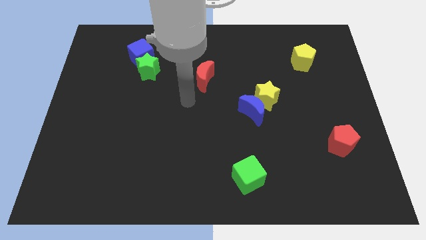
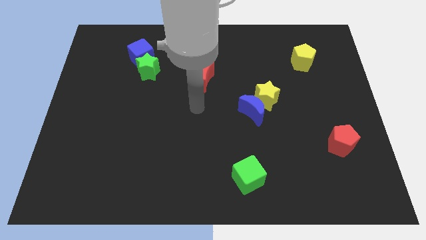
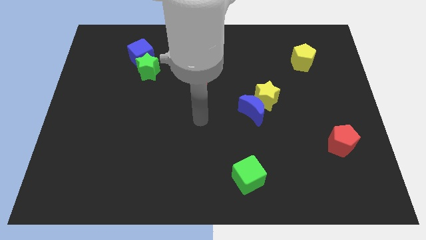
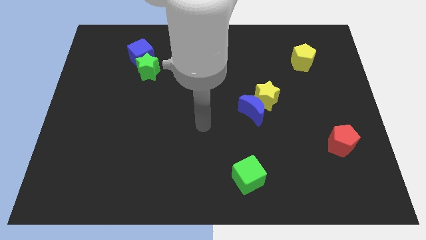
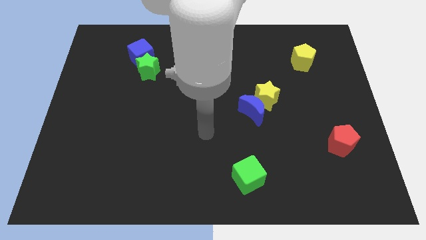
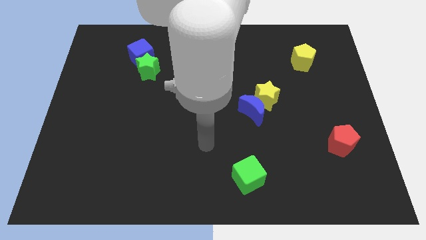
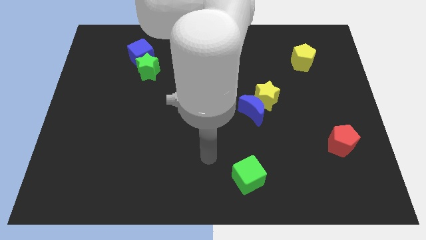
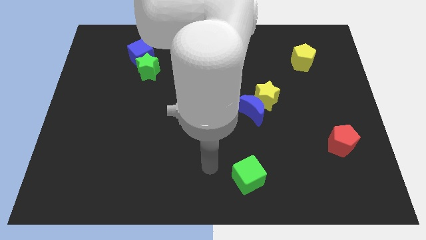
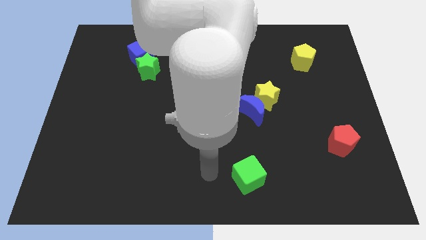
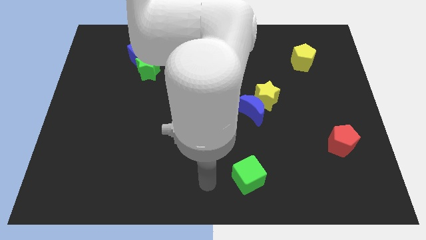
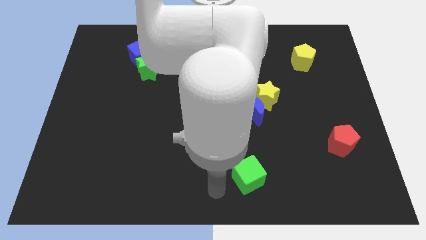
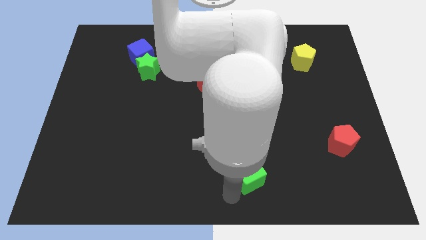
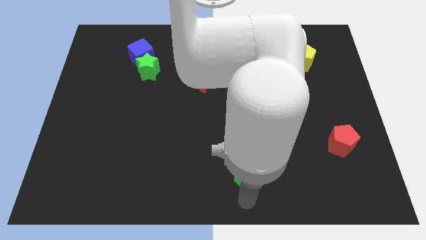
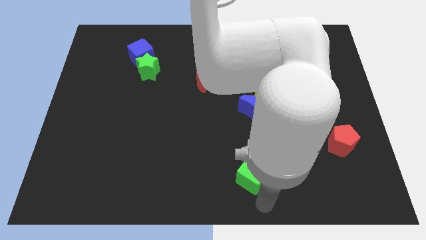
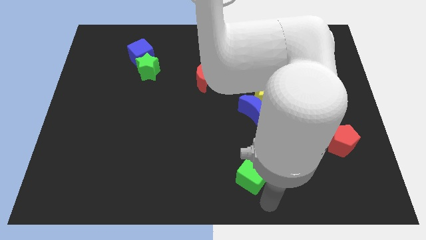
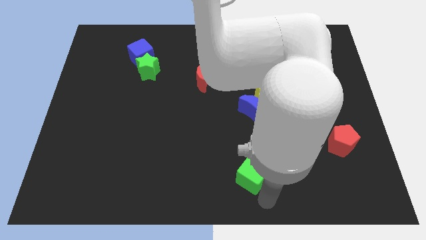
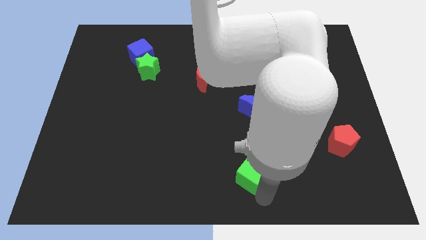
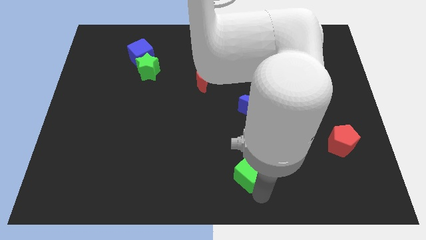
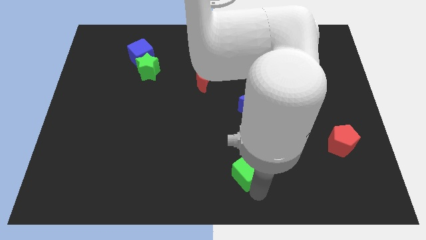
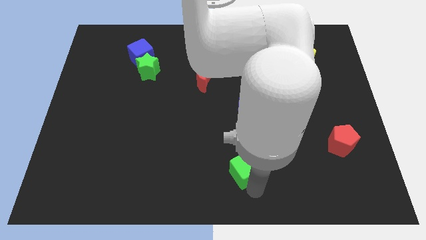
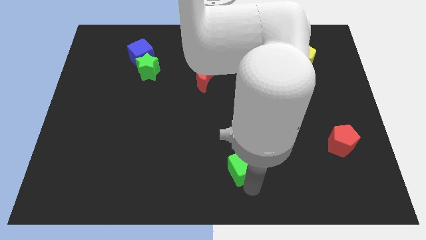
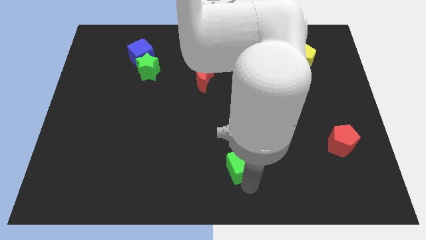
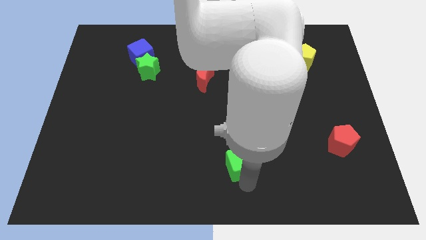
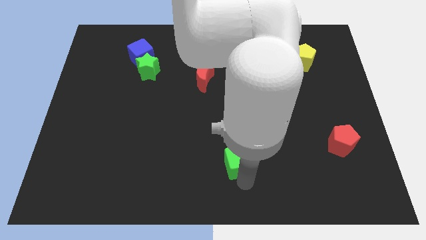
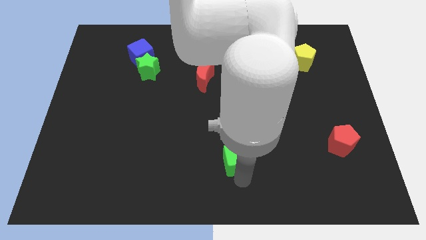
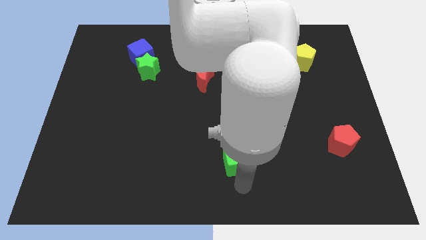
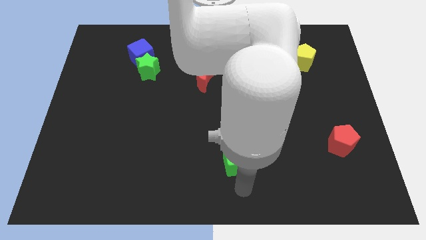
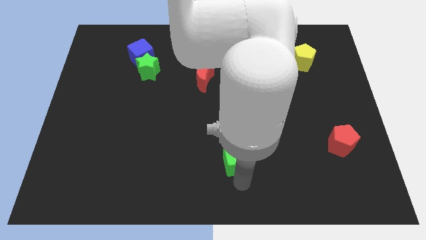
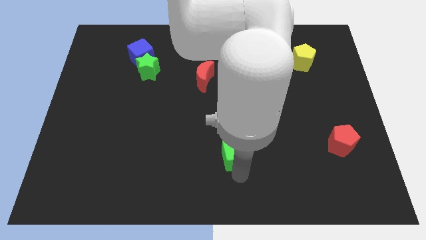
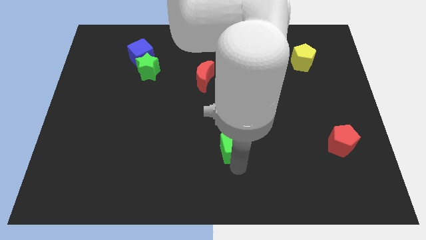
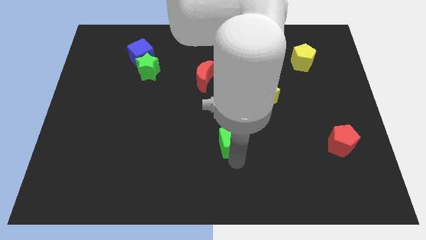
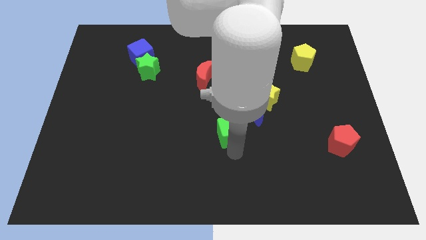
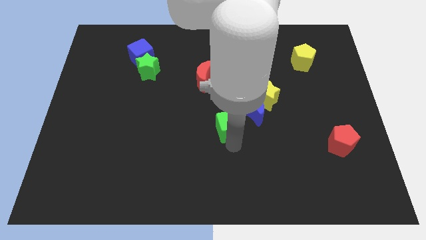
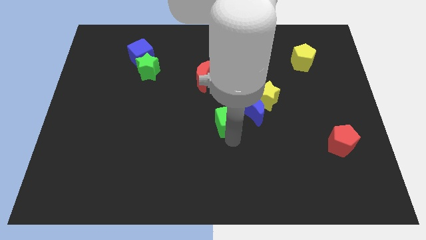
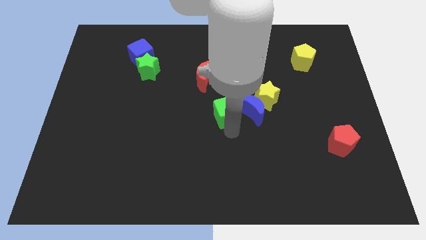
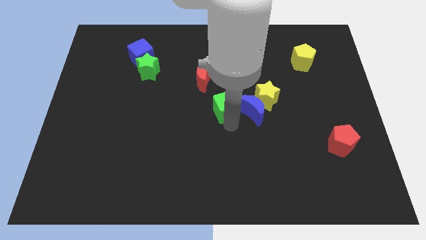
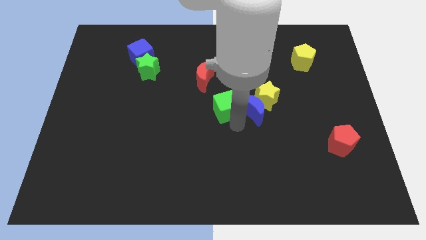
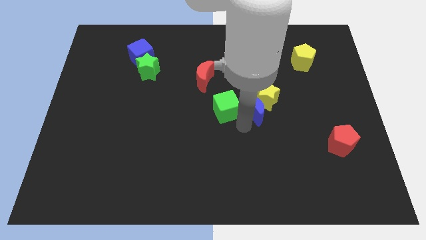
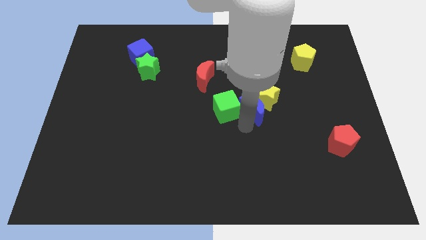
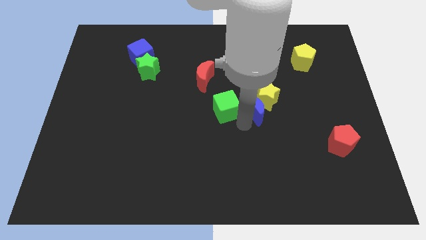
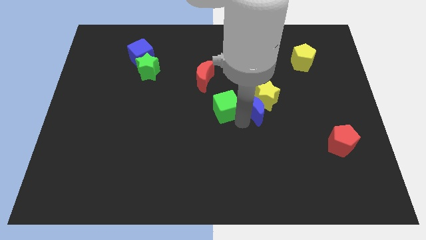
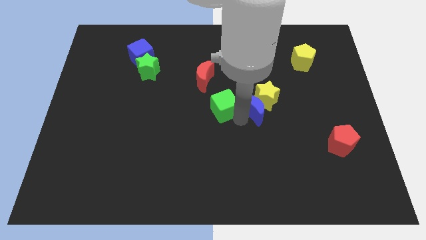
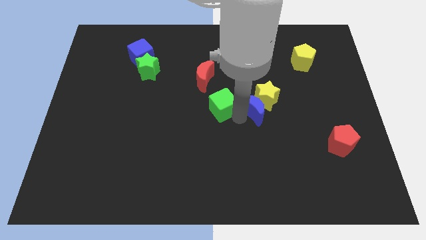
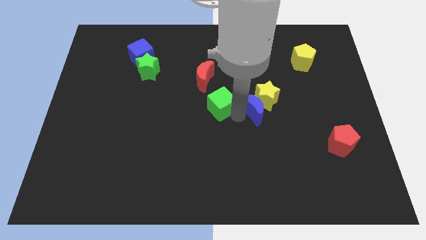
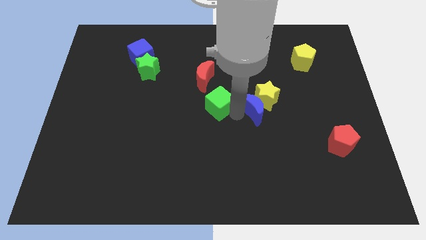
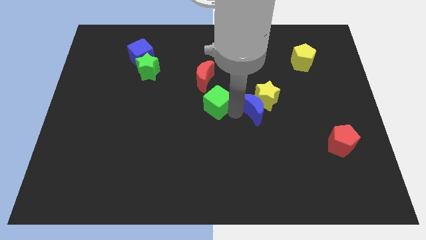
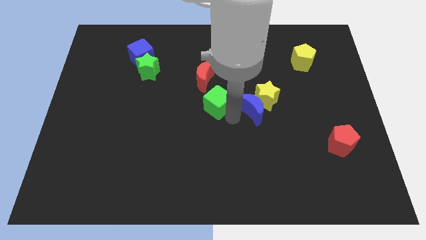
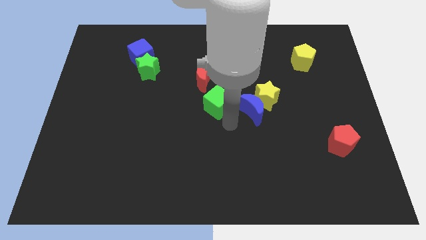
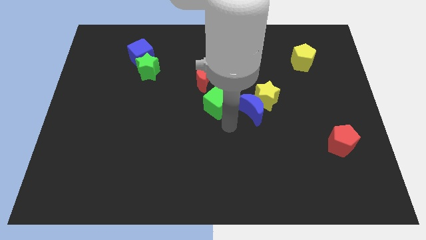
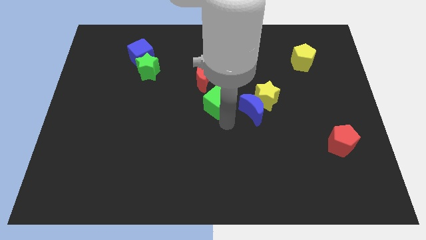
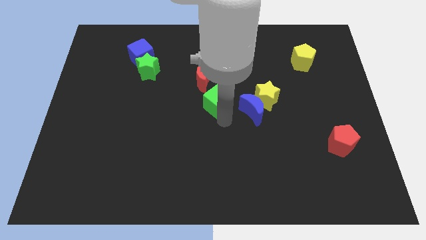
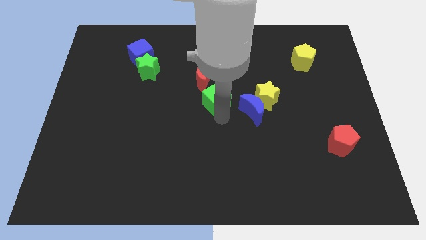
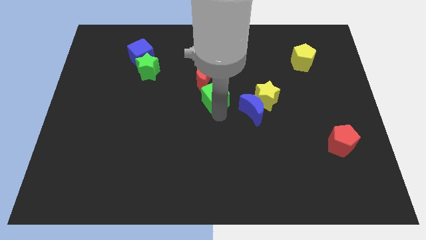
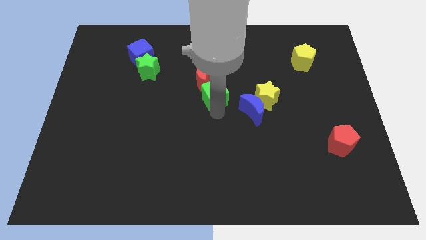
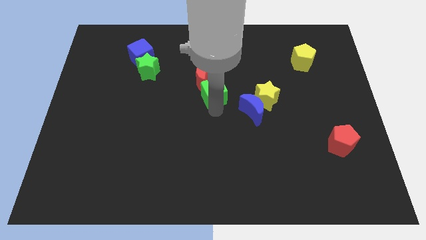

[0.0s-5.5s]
push the green cube towards the red moon

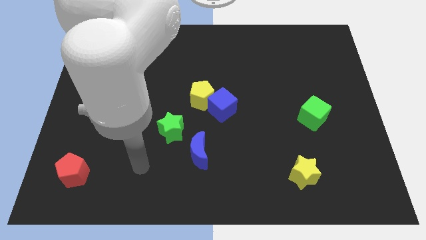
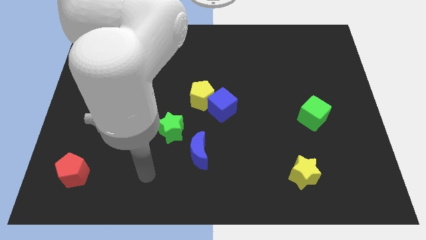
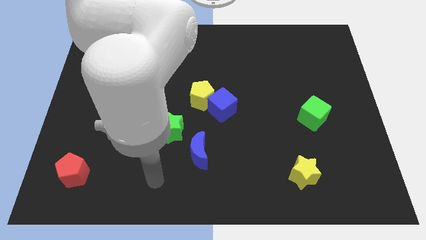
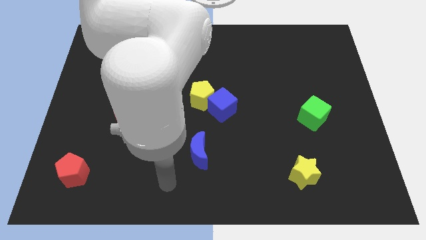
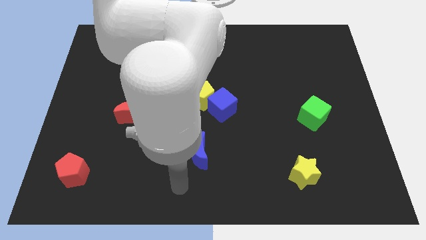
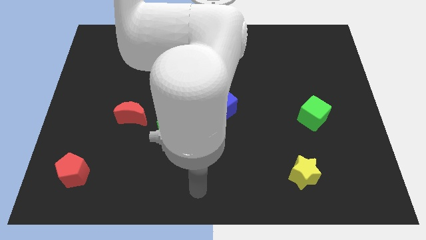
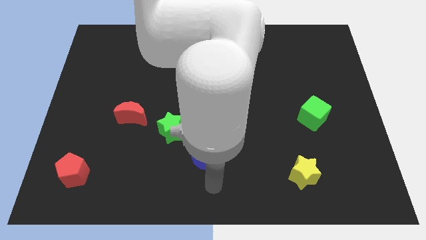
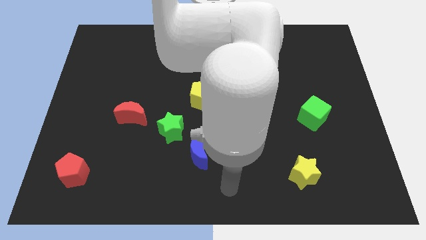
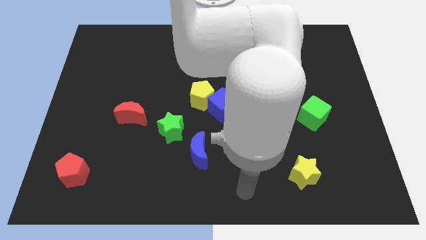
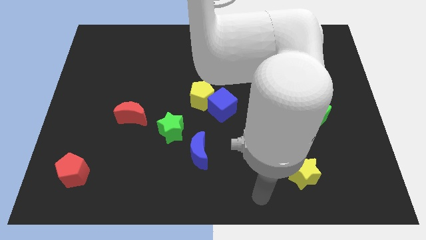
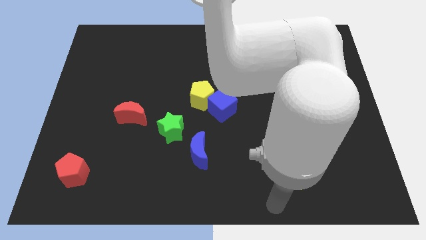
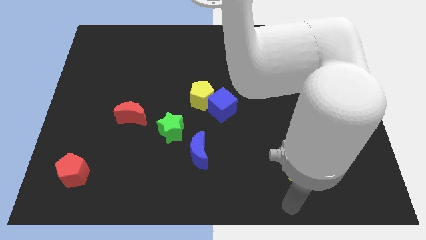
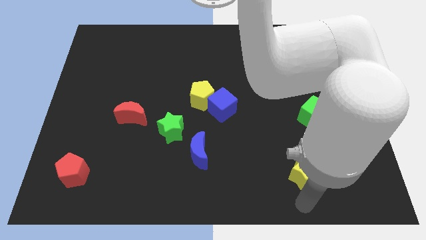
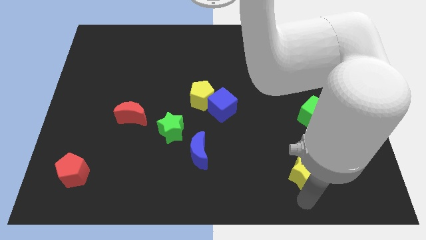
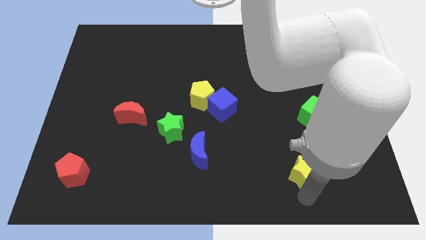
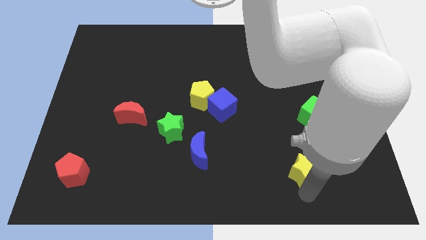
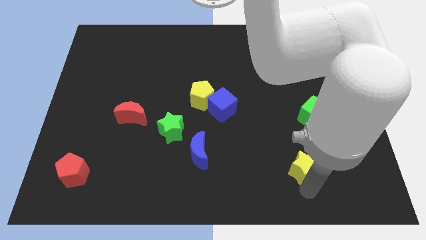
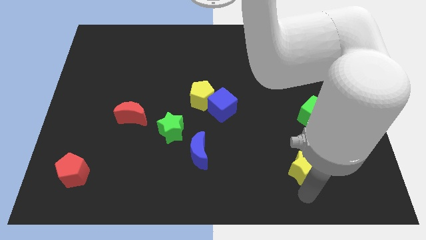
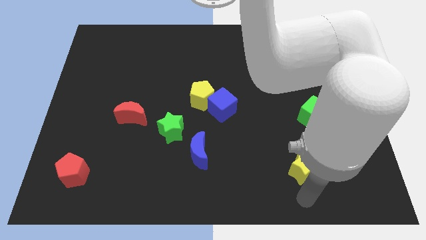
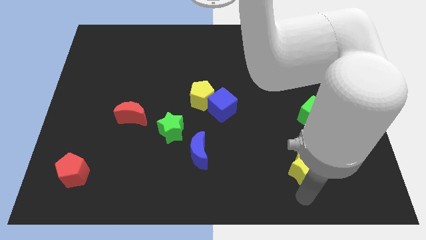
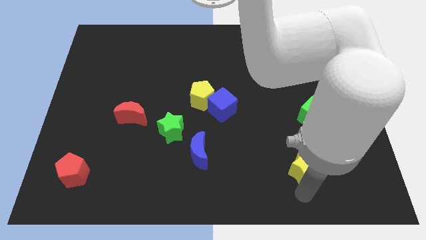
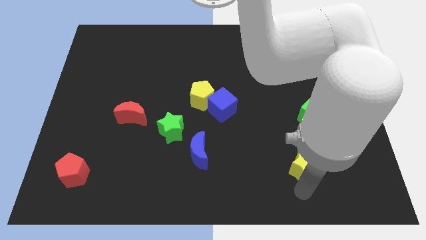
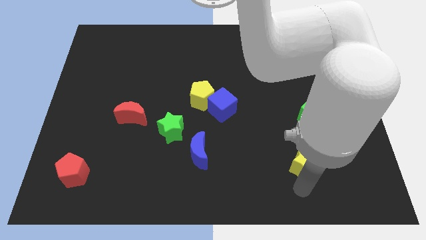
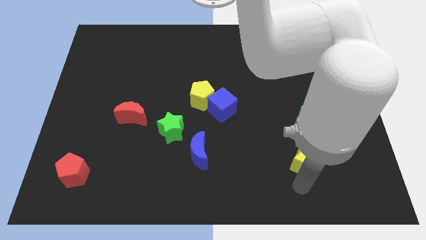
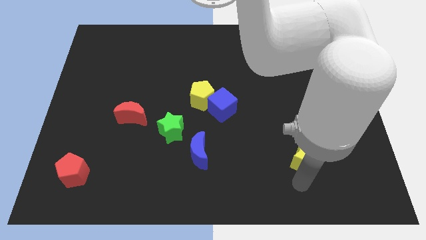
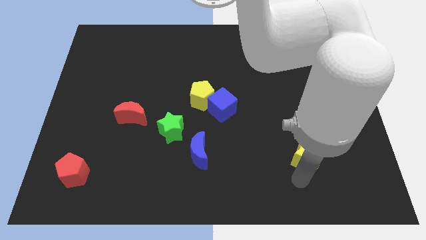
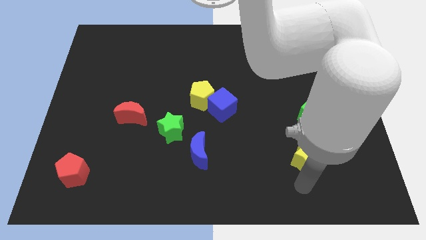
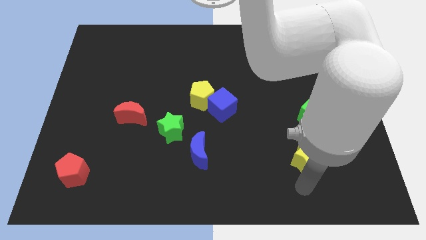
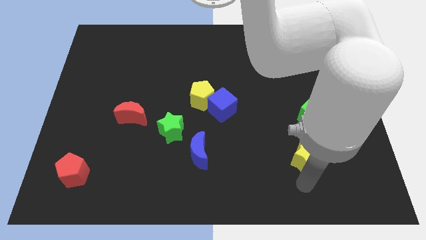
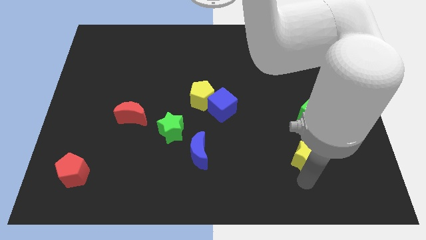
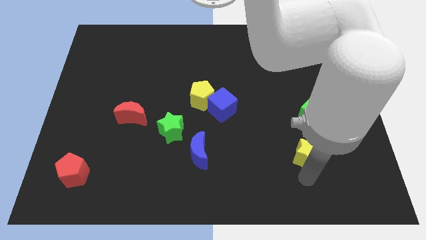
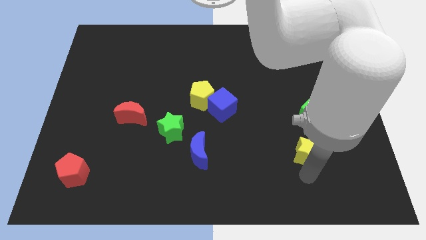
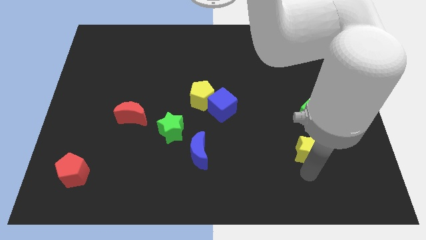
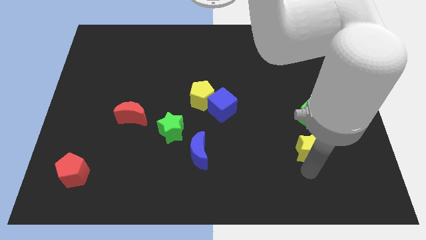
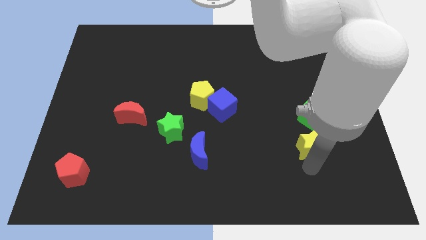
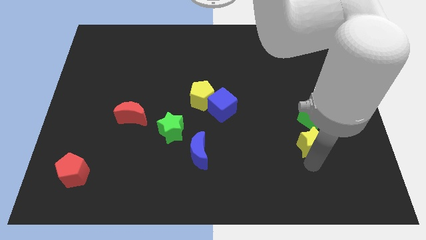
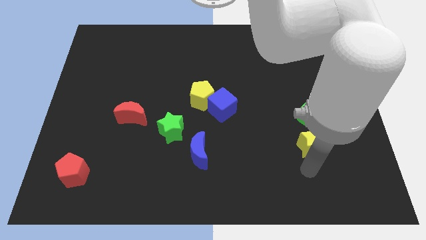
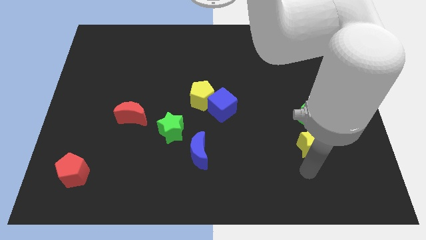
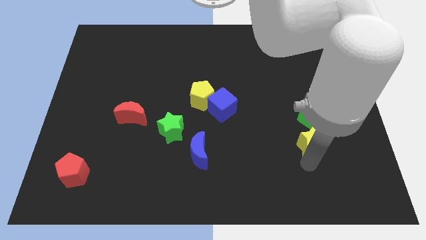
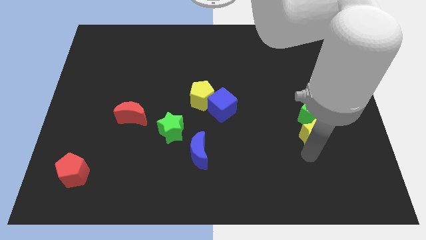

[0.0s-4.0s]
slide the yellow star towards the green cube
